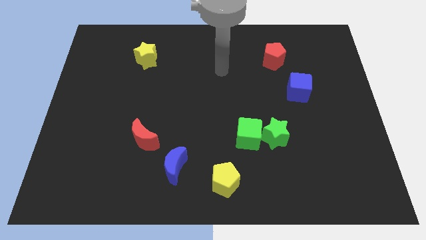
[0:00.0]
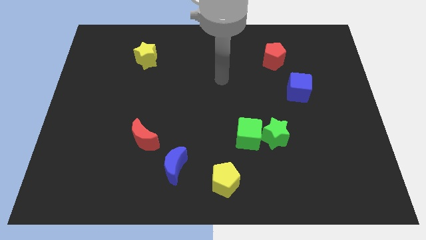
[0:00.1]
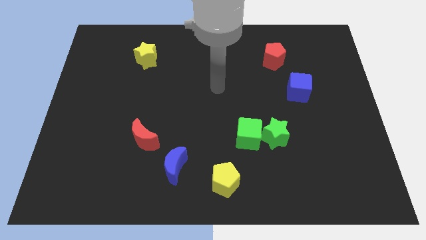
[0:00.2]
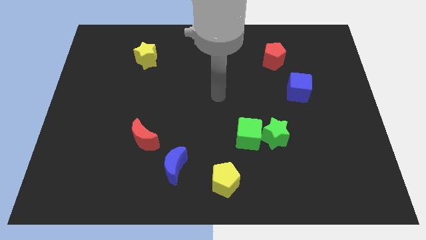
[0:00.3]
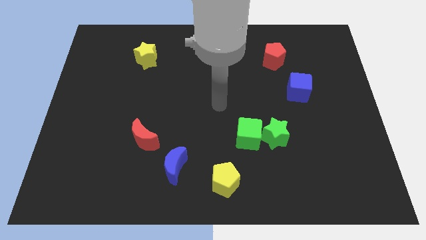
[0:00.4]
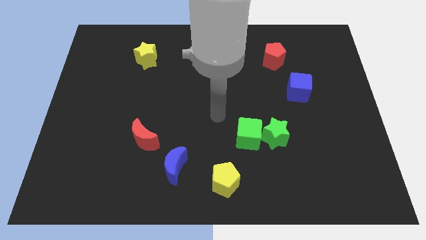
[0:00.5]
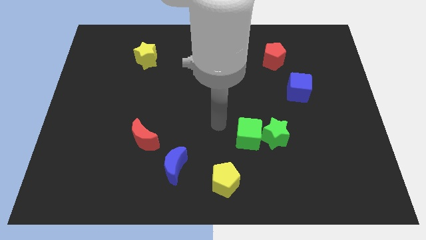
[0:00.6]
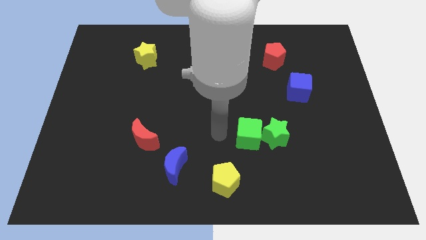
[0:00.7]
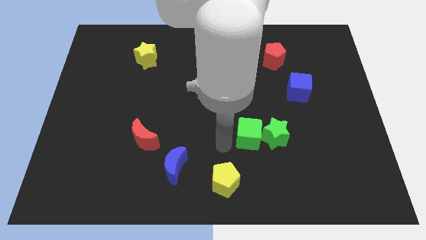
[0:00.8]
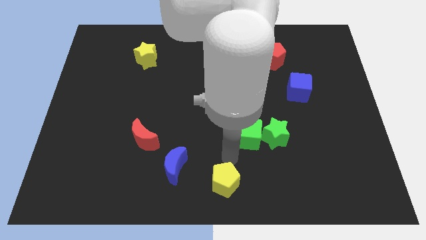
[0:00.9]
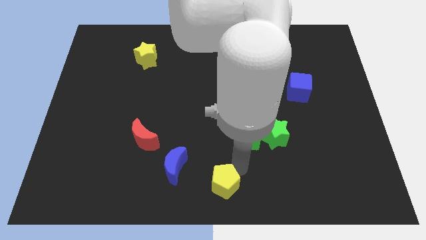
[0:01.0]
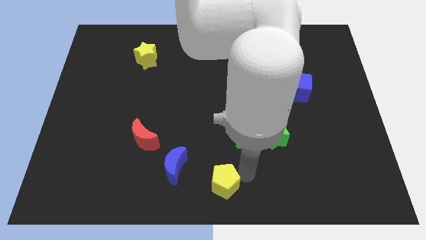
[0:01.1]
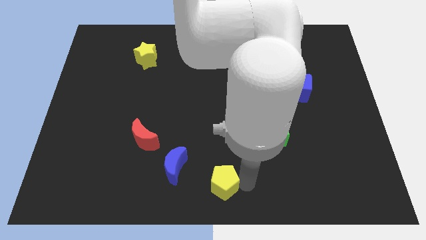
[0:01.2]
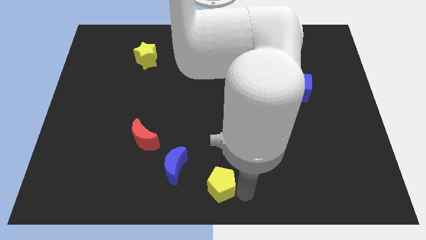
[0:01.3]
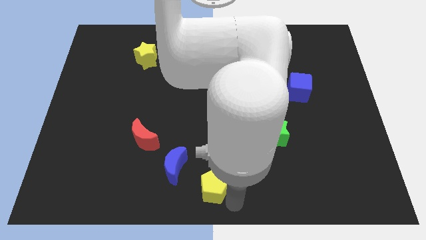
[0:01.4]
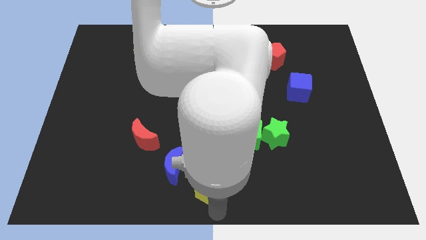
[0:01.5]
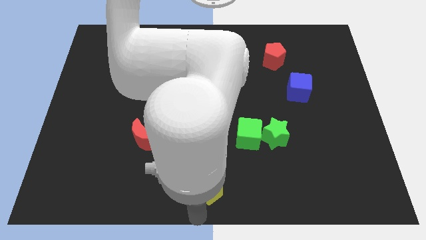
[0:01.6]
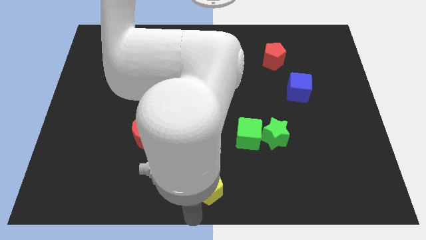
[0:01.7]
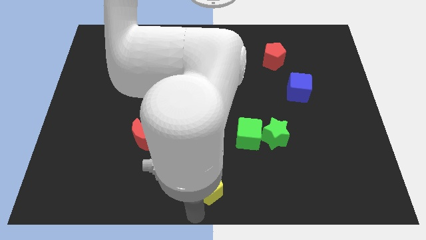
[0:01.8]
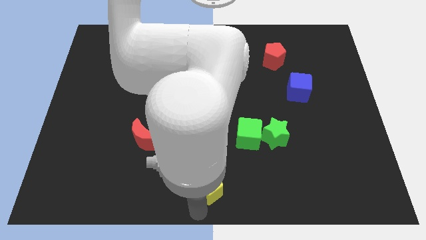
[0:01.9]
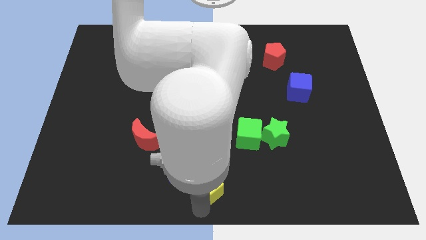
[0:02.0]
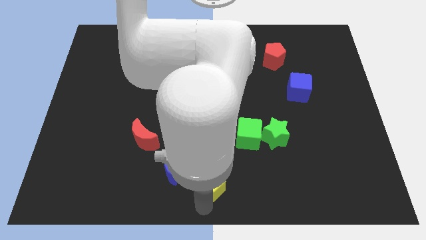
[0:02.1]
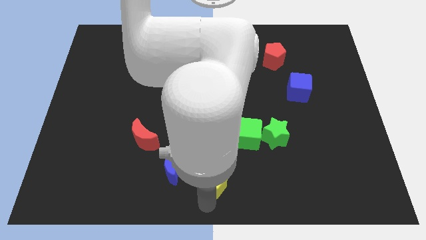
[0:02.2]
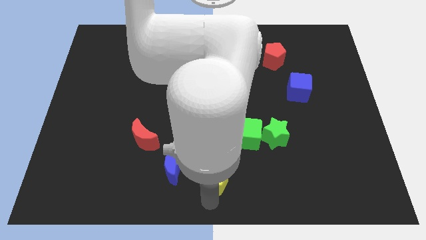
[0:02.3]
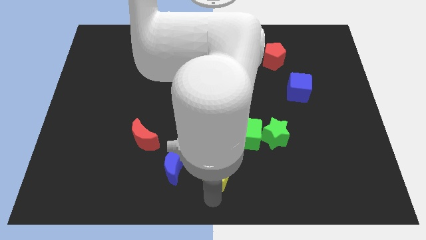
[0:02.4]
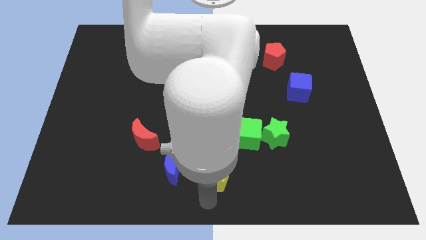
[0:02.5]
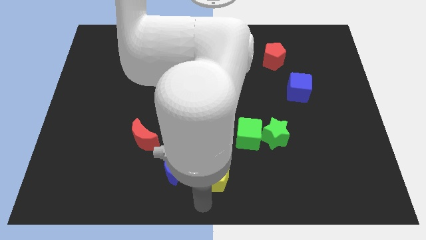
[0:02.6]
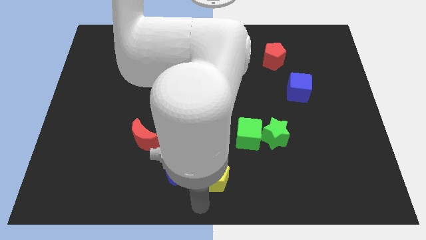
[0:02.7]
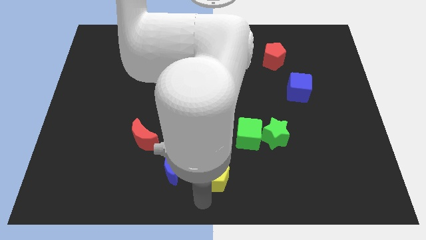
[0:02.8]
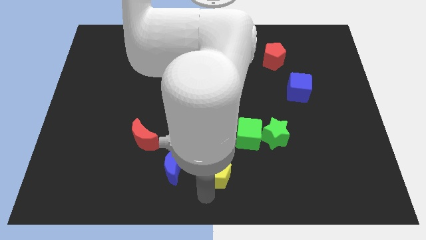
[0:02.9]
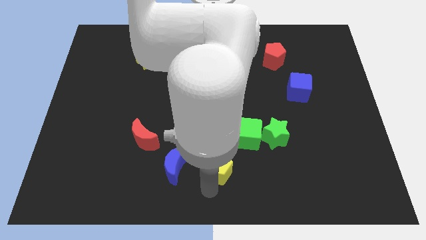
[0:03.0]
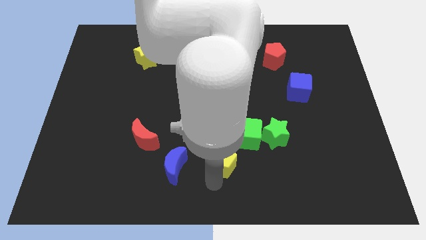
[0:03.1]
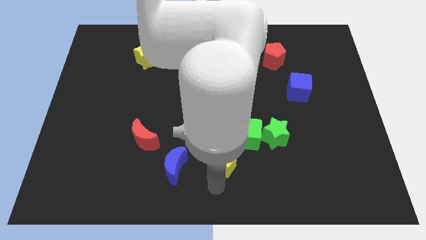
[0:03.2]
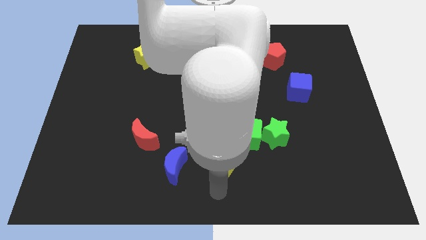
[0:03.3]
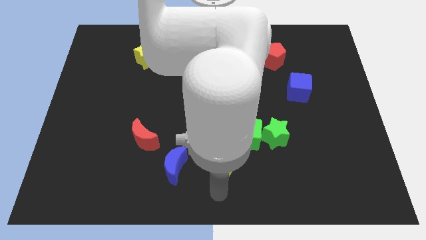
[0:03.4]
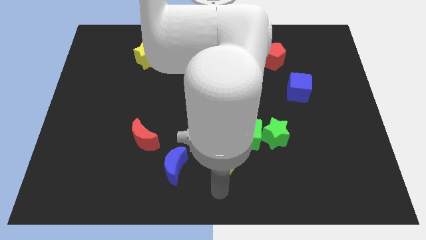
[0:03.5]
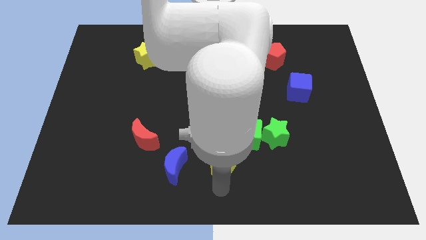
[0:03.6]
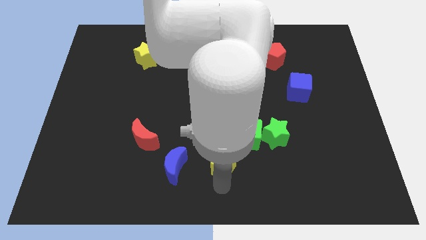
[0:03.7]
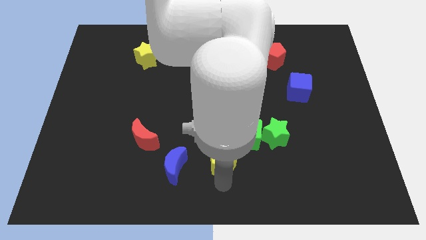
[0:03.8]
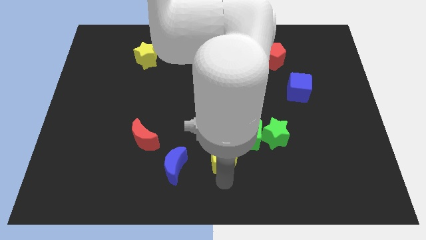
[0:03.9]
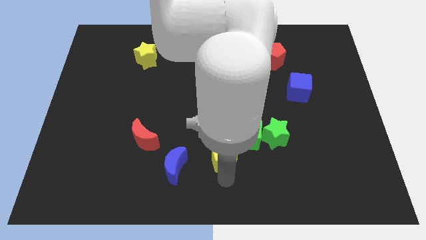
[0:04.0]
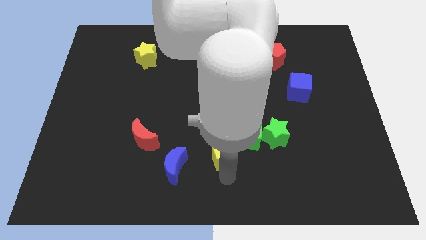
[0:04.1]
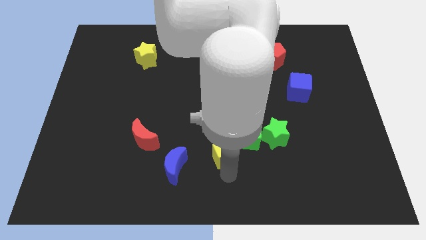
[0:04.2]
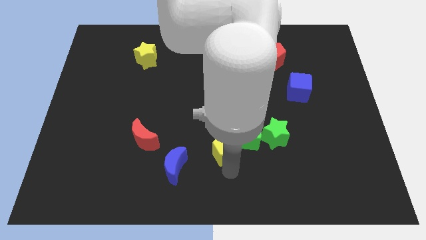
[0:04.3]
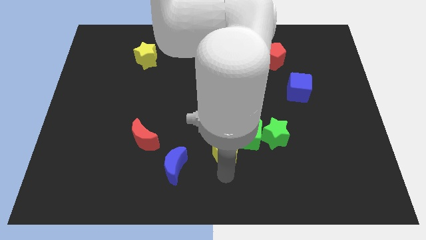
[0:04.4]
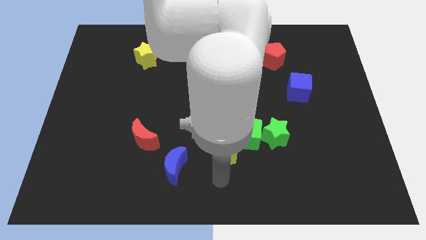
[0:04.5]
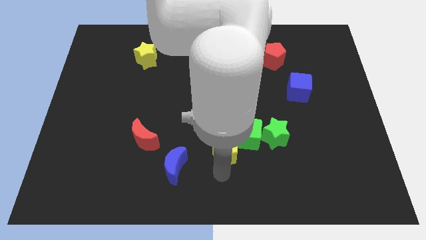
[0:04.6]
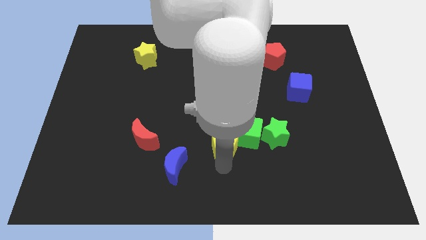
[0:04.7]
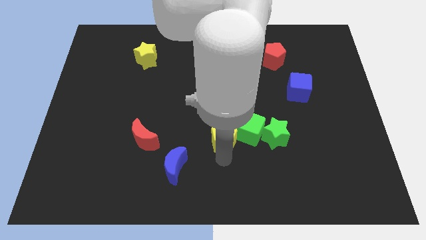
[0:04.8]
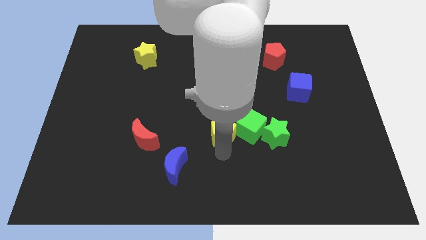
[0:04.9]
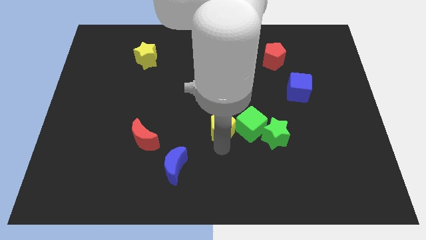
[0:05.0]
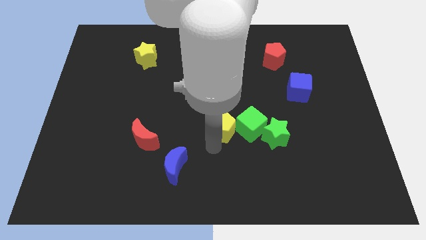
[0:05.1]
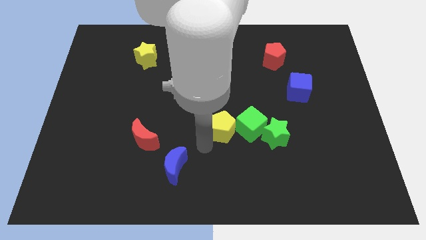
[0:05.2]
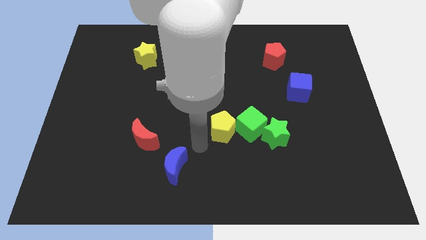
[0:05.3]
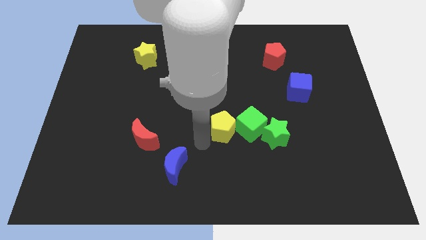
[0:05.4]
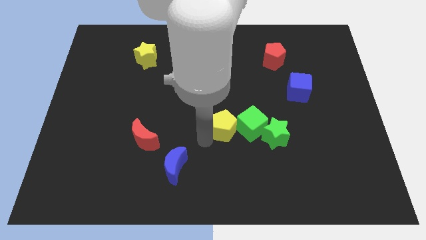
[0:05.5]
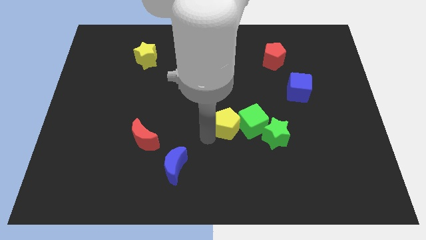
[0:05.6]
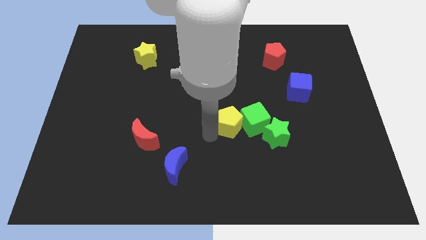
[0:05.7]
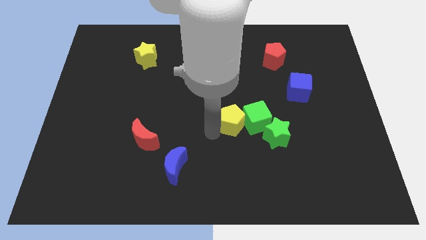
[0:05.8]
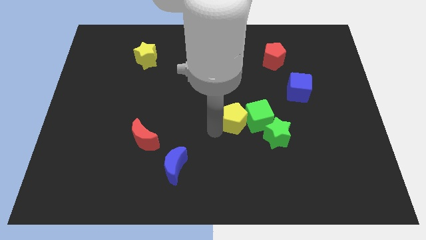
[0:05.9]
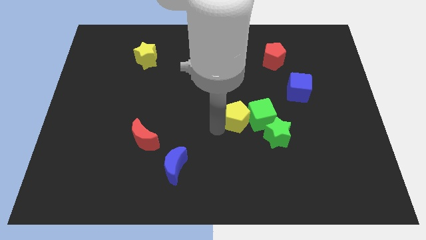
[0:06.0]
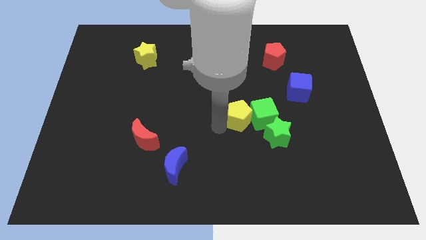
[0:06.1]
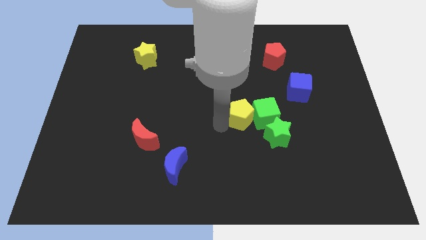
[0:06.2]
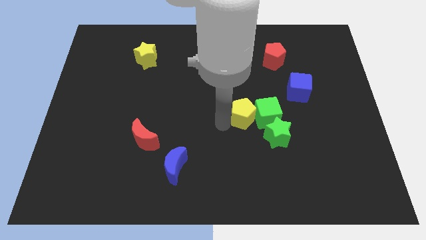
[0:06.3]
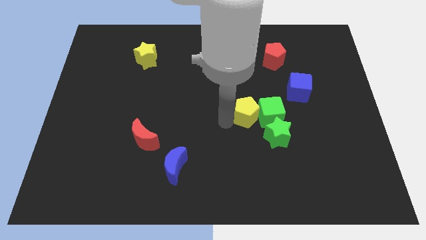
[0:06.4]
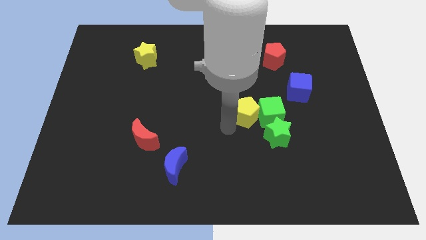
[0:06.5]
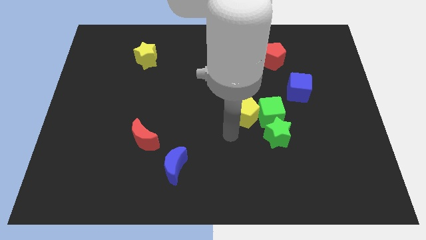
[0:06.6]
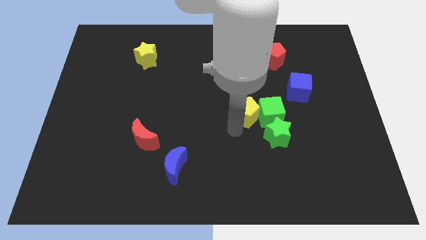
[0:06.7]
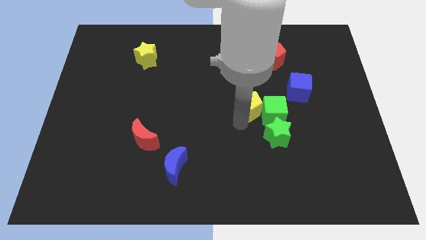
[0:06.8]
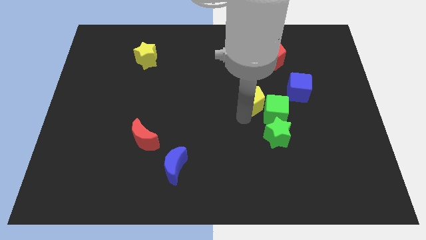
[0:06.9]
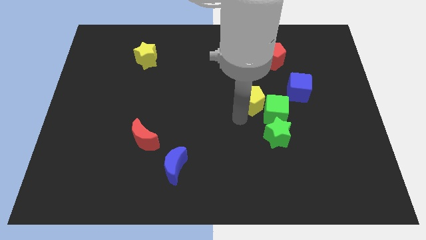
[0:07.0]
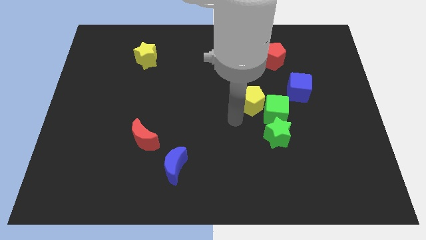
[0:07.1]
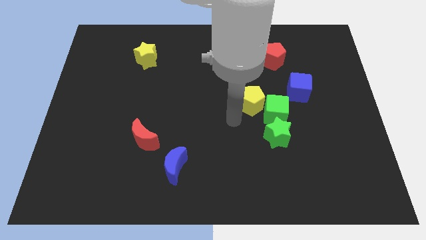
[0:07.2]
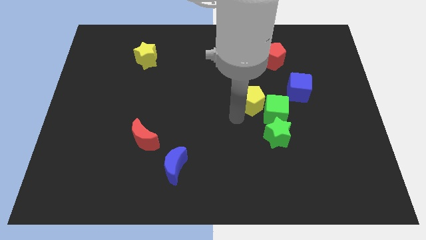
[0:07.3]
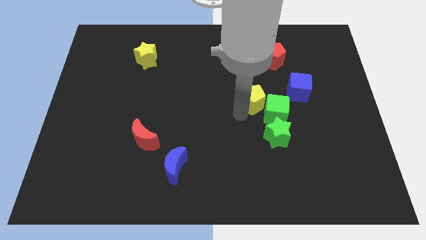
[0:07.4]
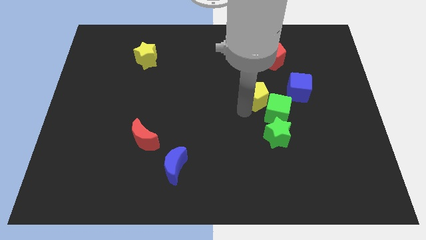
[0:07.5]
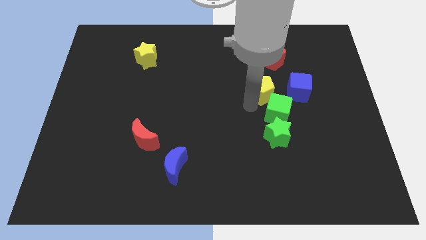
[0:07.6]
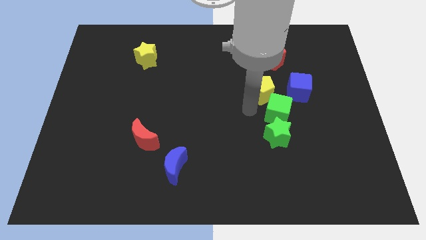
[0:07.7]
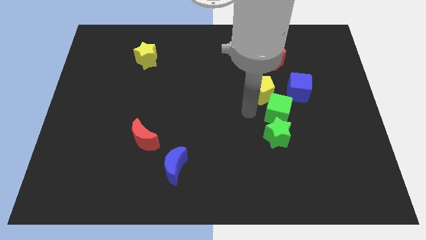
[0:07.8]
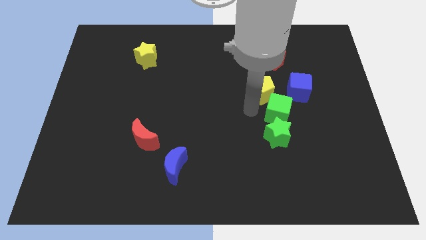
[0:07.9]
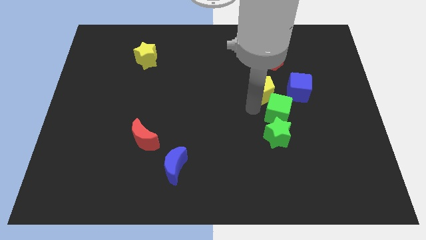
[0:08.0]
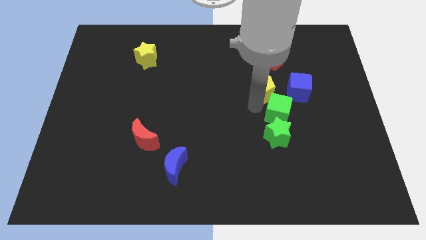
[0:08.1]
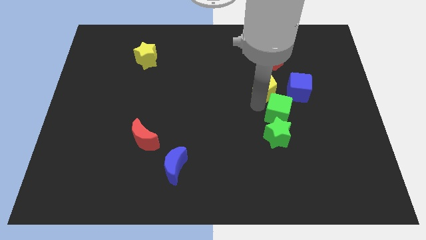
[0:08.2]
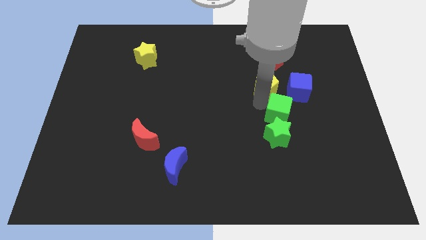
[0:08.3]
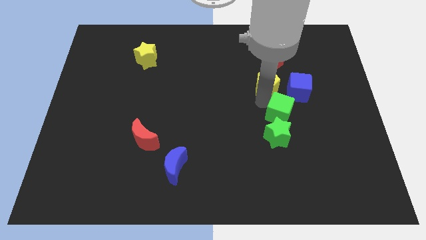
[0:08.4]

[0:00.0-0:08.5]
put the yellow pentagon to the top left side of the blue cube
